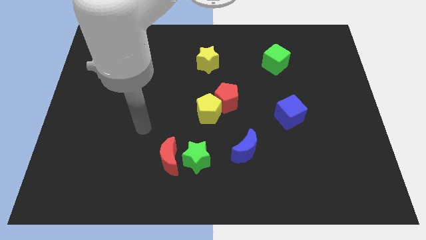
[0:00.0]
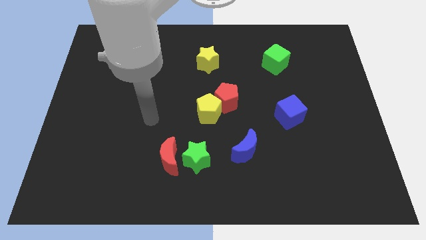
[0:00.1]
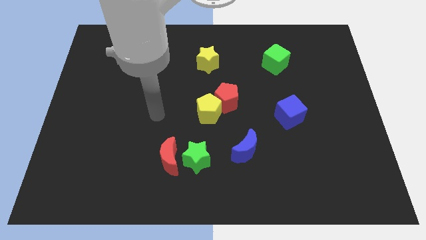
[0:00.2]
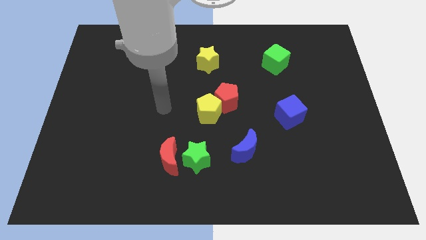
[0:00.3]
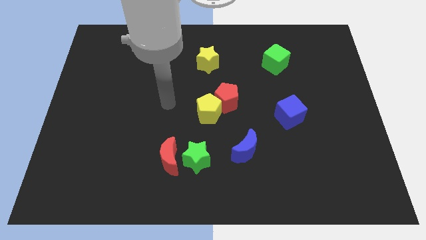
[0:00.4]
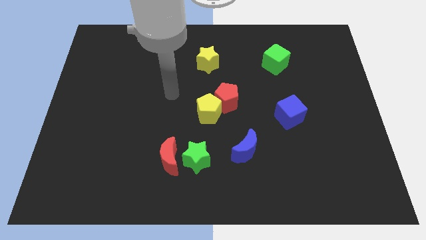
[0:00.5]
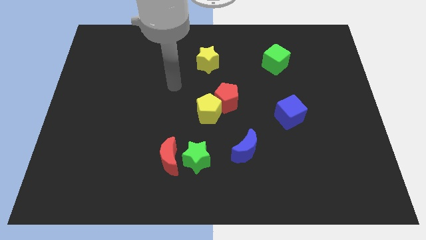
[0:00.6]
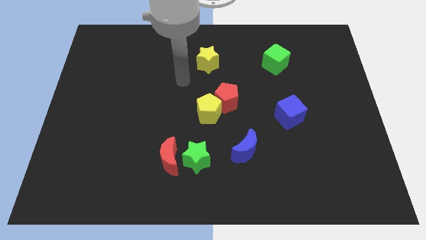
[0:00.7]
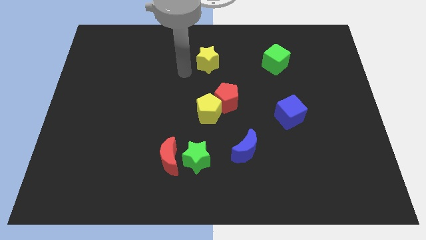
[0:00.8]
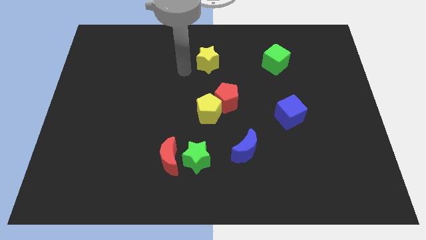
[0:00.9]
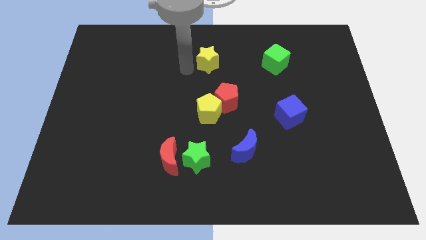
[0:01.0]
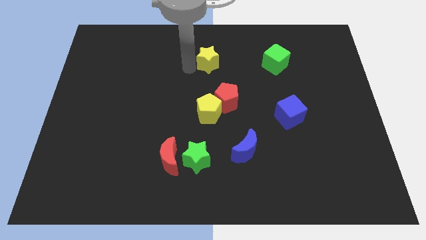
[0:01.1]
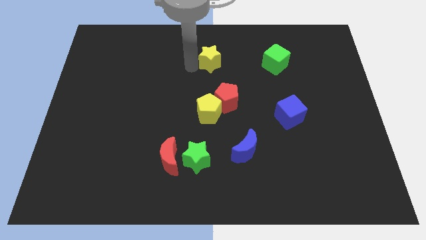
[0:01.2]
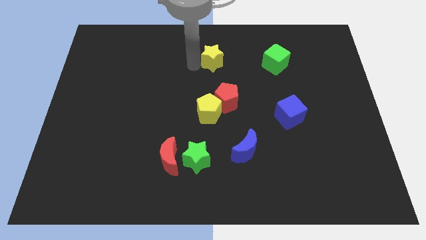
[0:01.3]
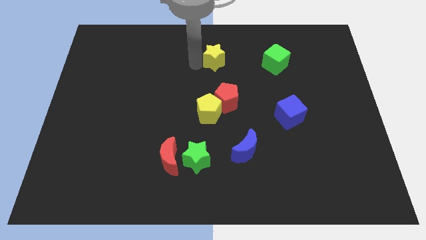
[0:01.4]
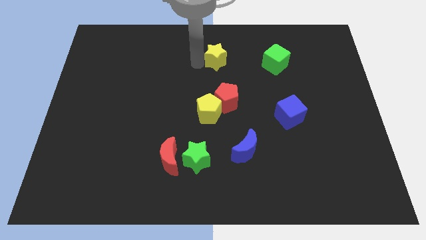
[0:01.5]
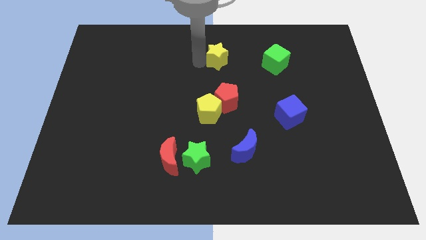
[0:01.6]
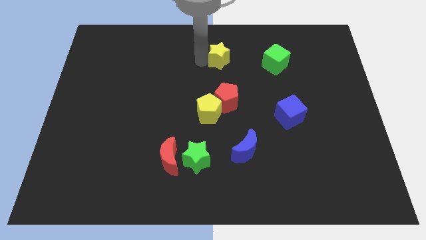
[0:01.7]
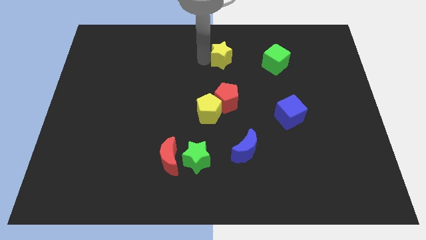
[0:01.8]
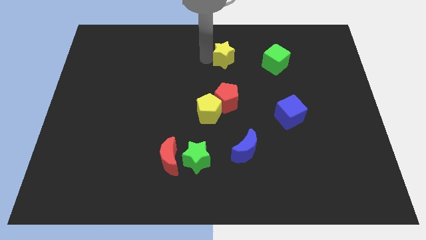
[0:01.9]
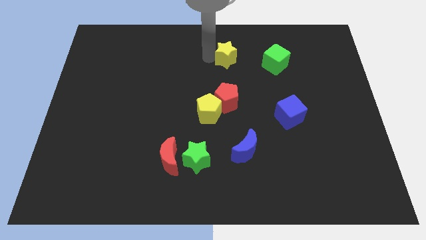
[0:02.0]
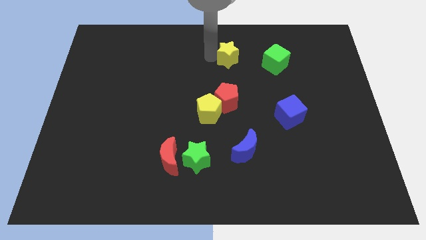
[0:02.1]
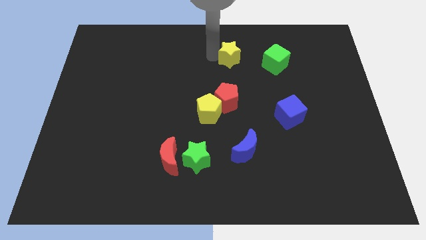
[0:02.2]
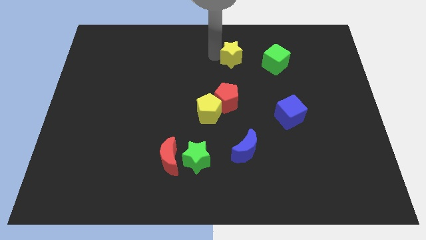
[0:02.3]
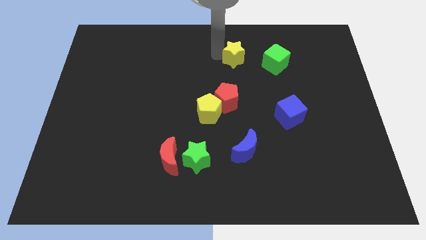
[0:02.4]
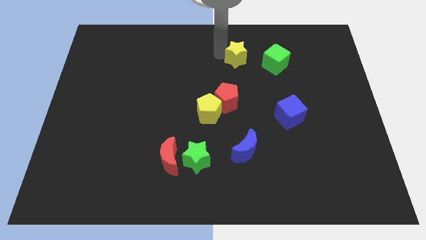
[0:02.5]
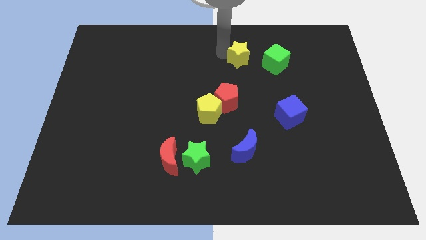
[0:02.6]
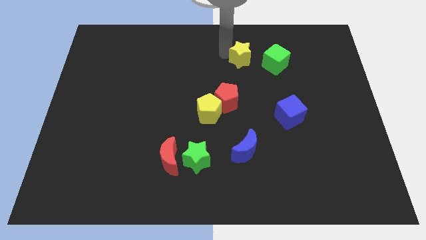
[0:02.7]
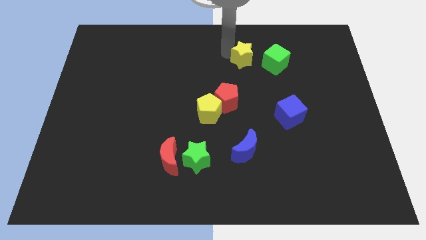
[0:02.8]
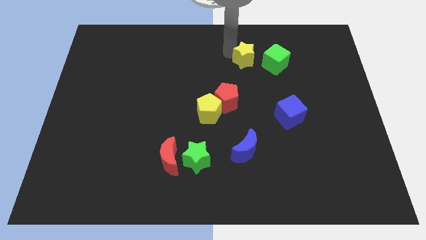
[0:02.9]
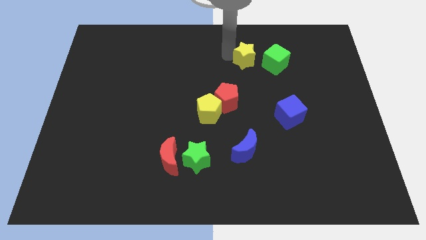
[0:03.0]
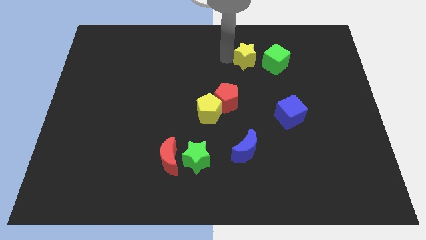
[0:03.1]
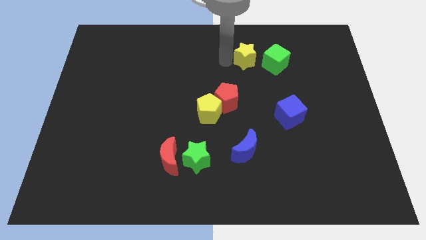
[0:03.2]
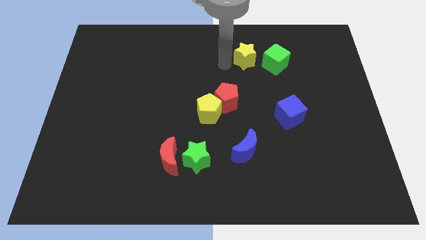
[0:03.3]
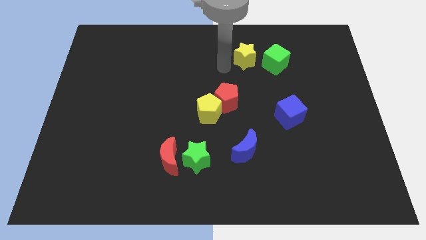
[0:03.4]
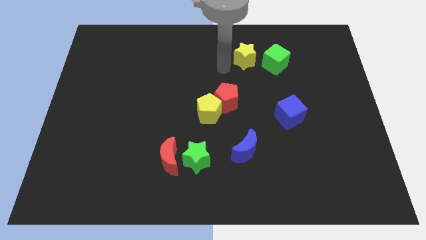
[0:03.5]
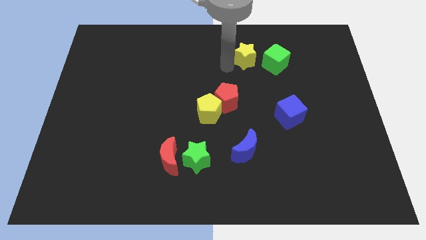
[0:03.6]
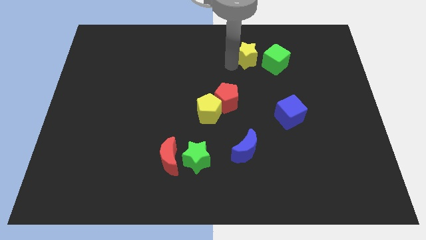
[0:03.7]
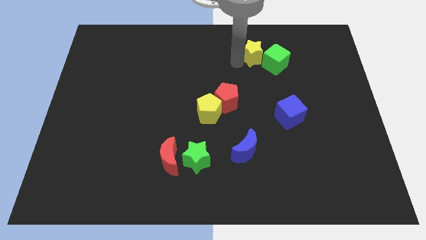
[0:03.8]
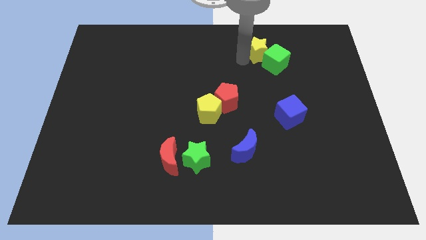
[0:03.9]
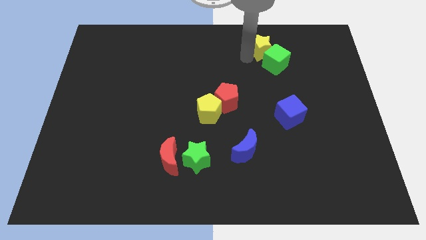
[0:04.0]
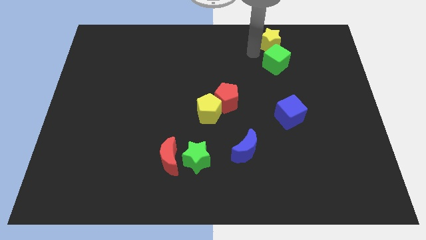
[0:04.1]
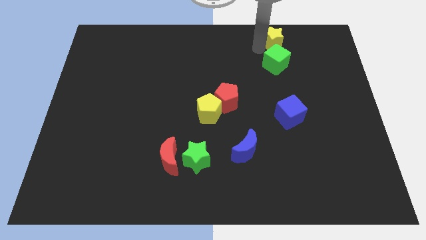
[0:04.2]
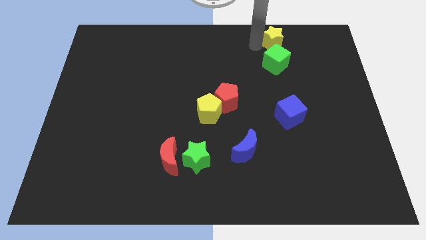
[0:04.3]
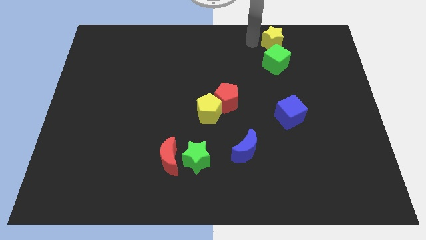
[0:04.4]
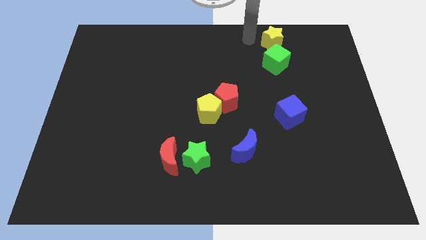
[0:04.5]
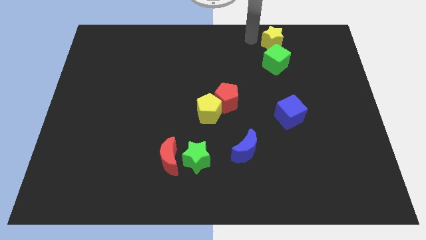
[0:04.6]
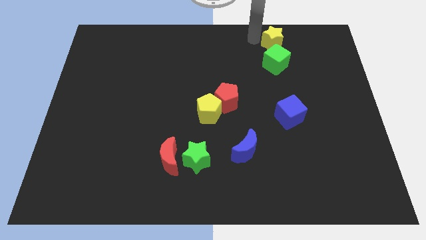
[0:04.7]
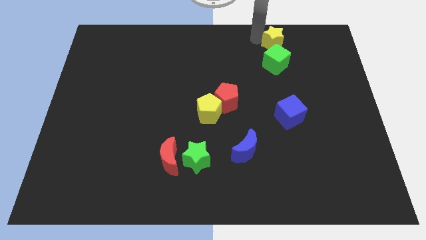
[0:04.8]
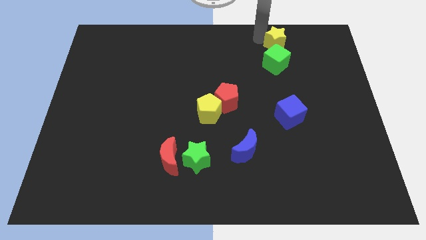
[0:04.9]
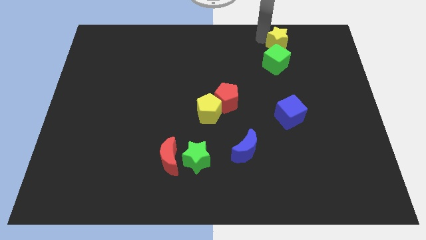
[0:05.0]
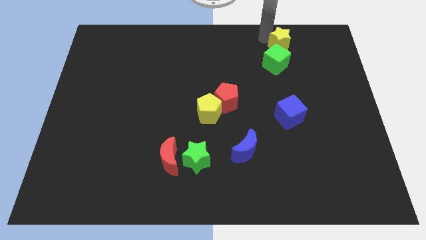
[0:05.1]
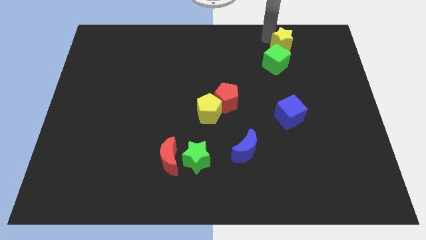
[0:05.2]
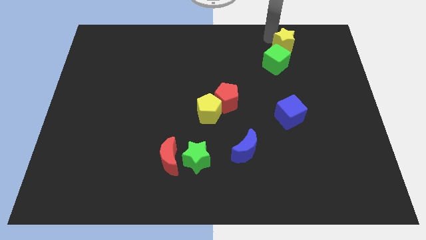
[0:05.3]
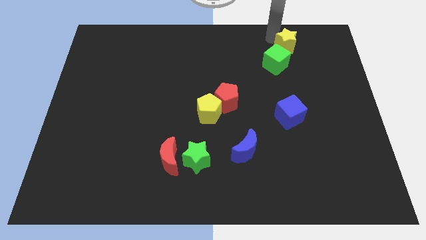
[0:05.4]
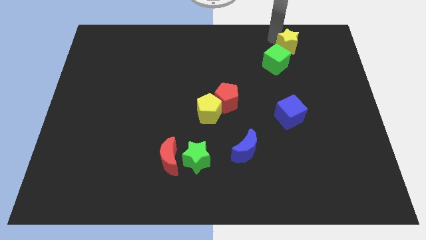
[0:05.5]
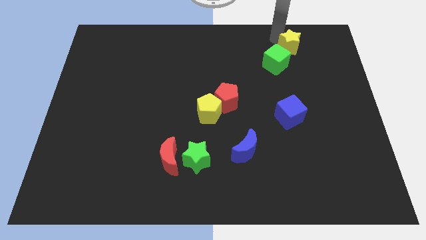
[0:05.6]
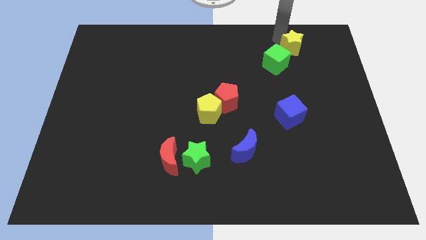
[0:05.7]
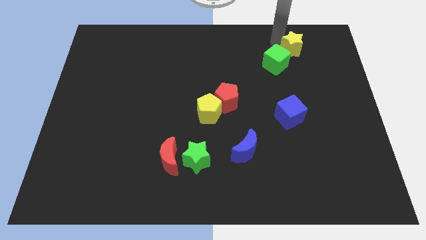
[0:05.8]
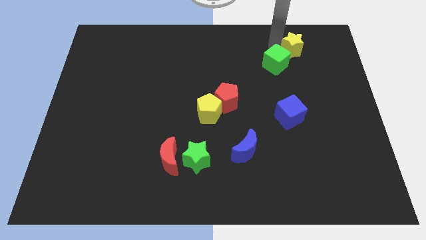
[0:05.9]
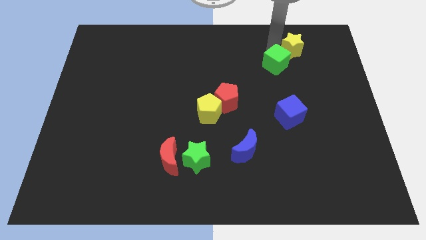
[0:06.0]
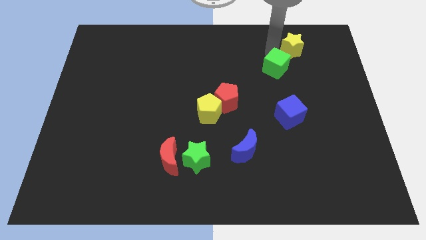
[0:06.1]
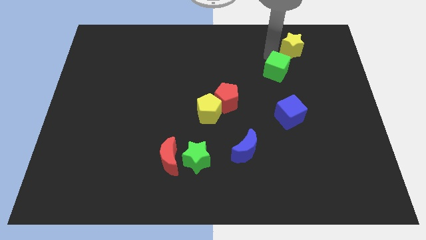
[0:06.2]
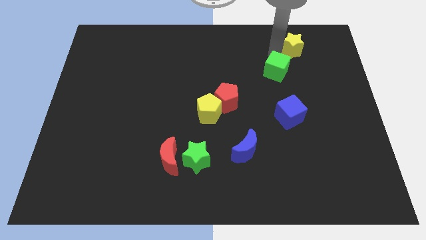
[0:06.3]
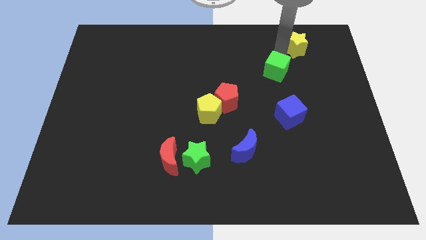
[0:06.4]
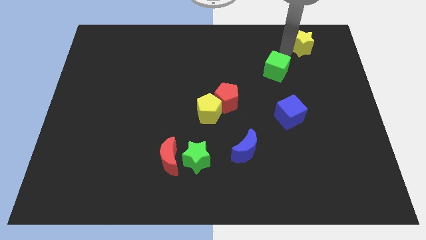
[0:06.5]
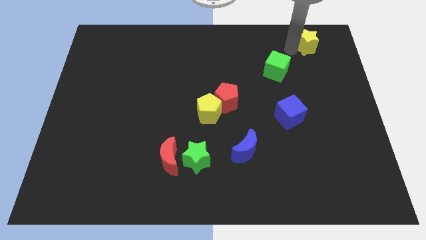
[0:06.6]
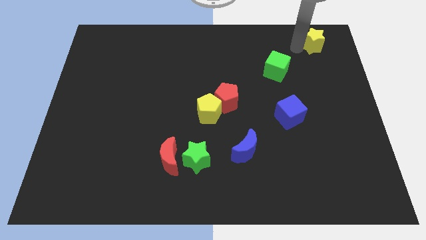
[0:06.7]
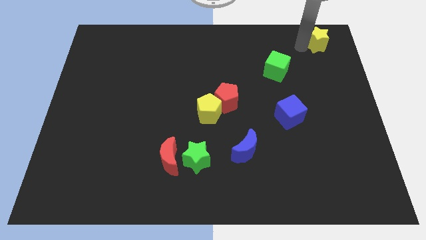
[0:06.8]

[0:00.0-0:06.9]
slide the yellow star to the top right of the board
